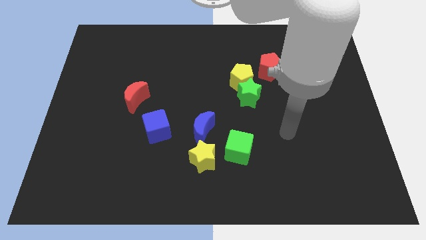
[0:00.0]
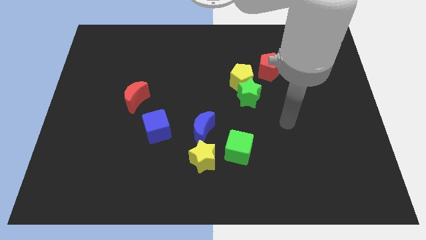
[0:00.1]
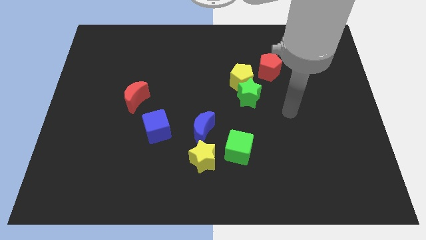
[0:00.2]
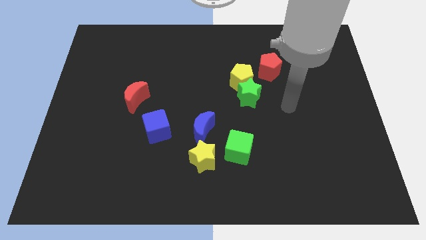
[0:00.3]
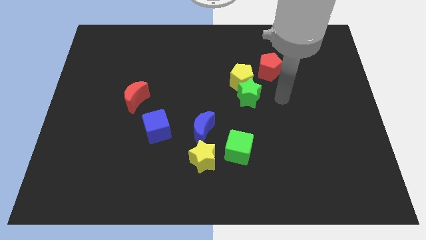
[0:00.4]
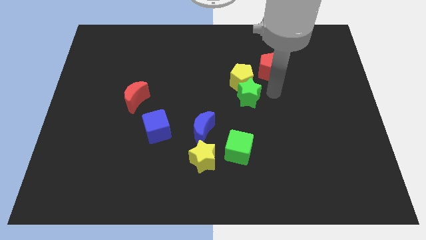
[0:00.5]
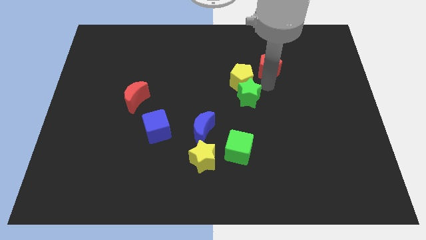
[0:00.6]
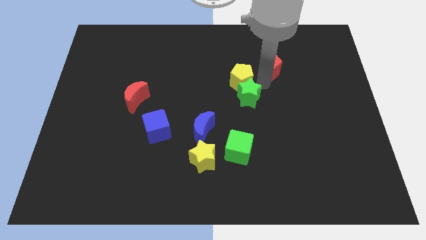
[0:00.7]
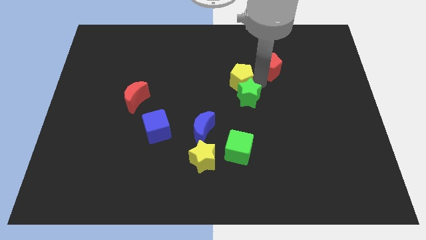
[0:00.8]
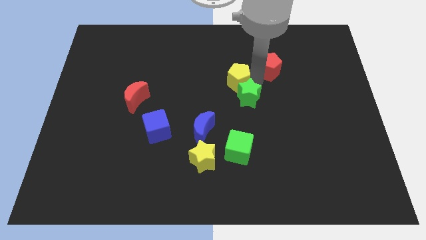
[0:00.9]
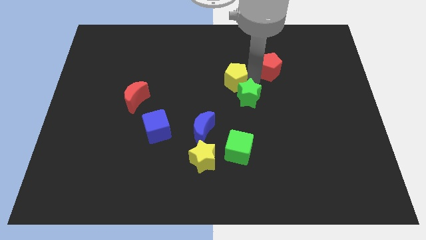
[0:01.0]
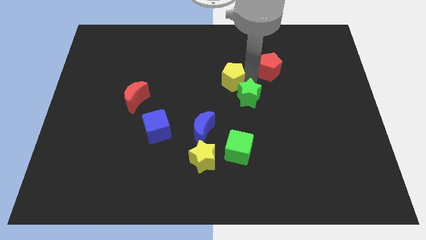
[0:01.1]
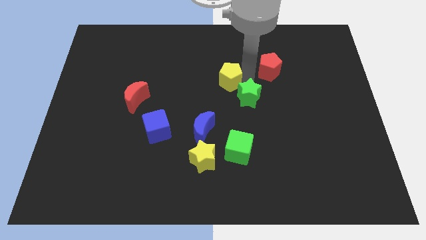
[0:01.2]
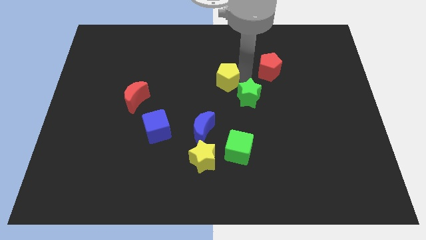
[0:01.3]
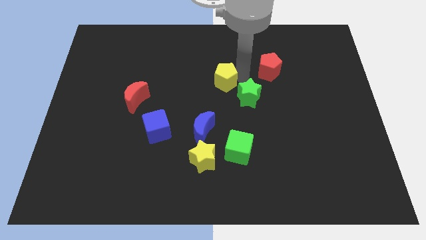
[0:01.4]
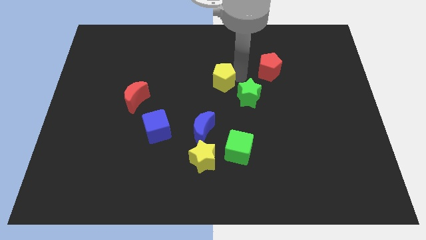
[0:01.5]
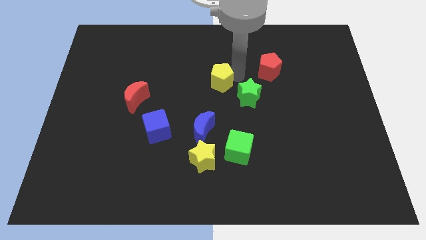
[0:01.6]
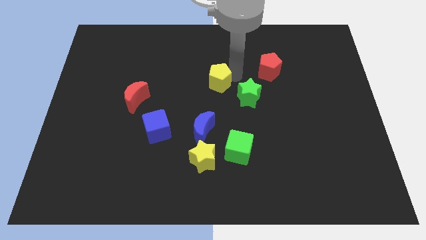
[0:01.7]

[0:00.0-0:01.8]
separate the yellow pentagon from the green star and red pentagon

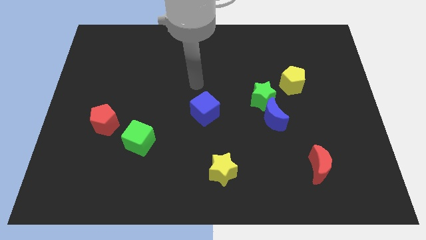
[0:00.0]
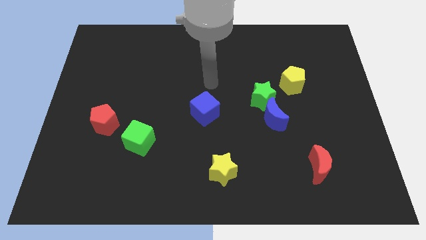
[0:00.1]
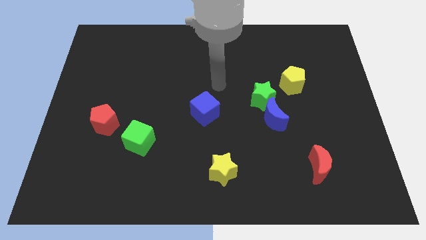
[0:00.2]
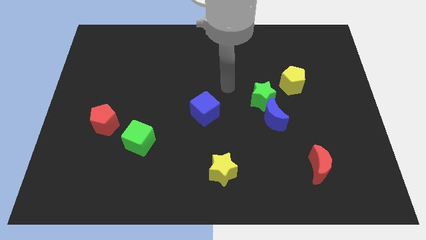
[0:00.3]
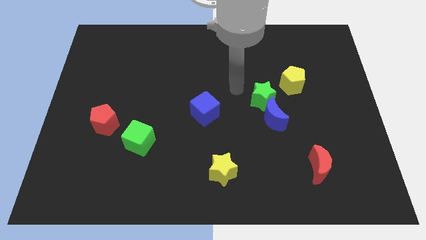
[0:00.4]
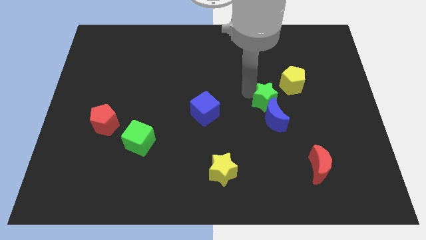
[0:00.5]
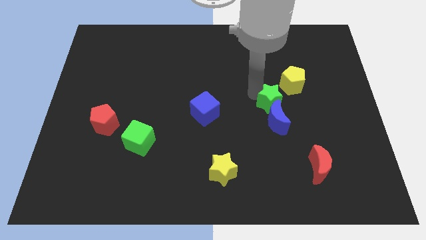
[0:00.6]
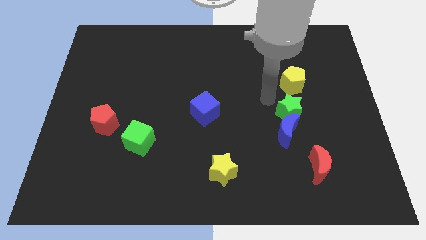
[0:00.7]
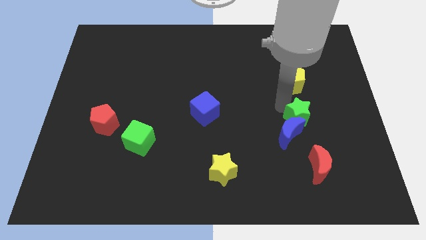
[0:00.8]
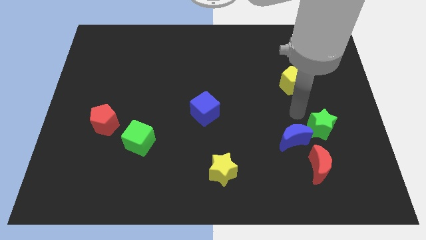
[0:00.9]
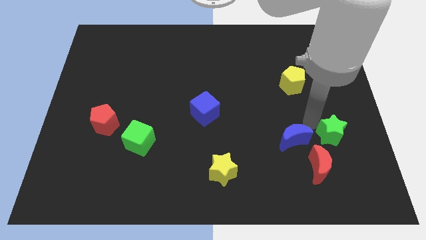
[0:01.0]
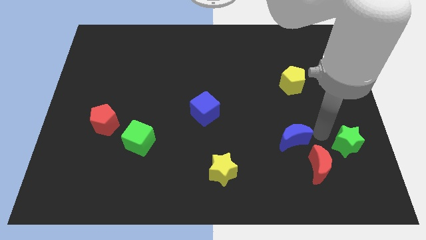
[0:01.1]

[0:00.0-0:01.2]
move the blue moon away from the green star

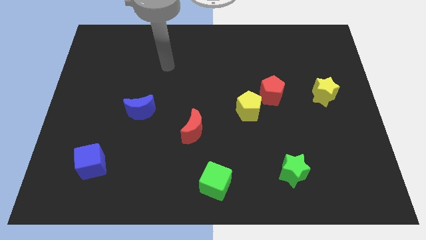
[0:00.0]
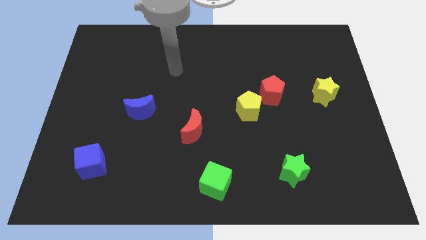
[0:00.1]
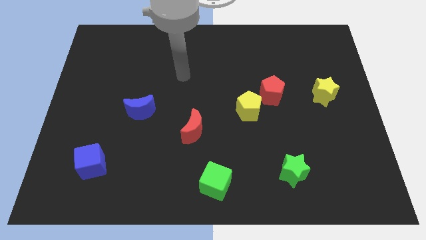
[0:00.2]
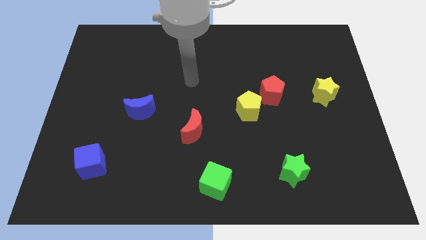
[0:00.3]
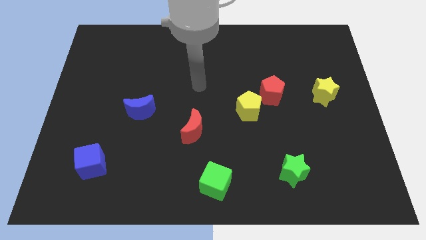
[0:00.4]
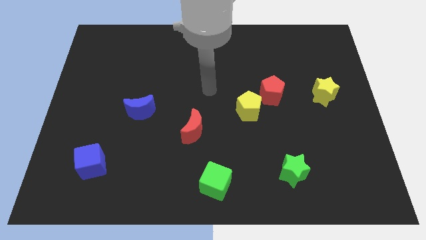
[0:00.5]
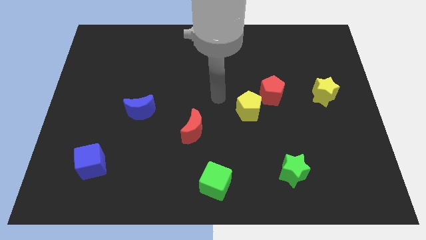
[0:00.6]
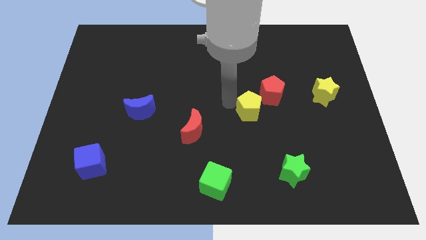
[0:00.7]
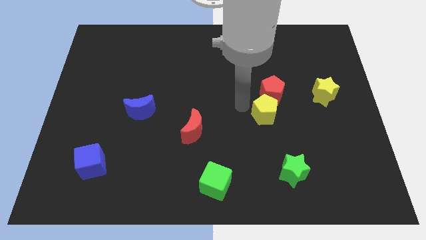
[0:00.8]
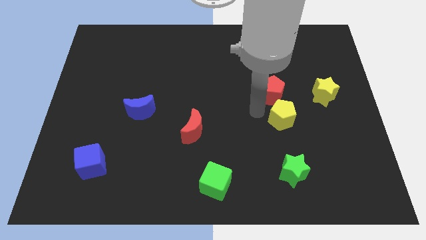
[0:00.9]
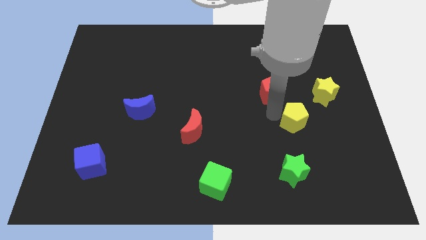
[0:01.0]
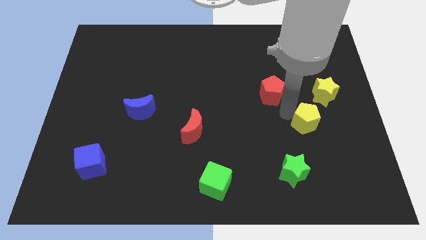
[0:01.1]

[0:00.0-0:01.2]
move the red pentagon away from the yellow pentagon

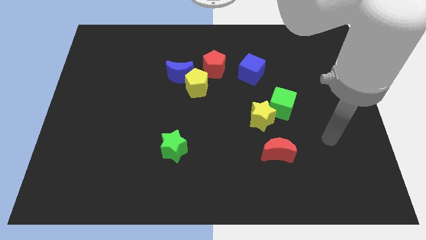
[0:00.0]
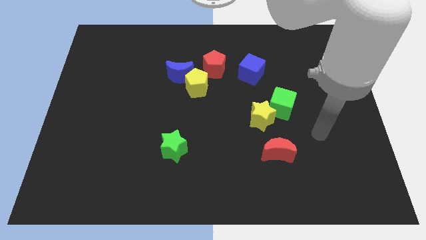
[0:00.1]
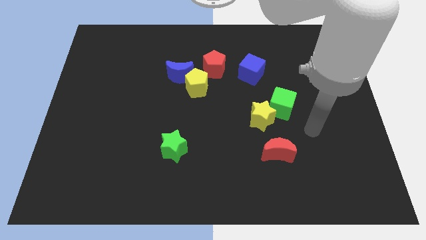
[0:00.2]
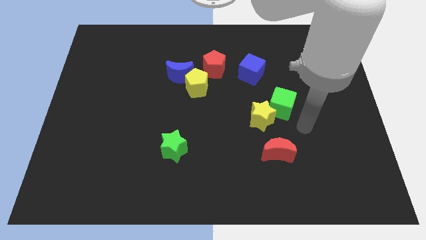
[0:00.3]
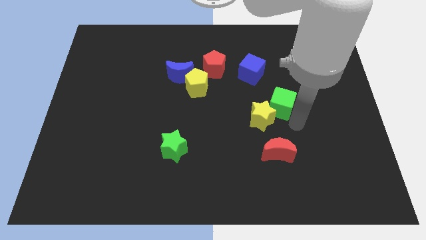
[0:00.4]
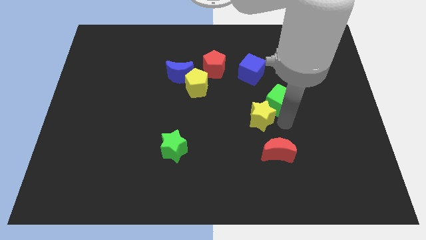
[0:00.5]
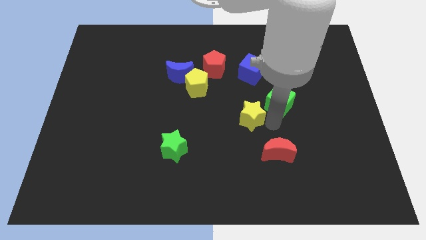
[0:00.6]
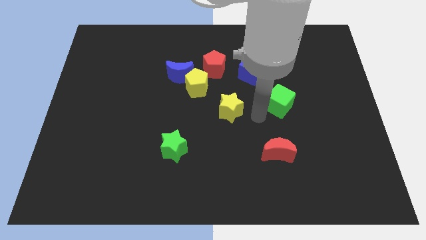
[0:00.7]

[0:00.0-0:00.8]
pull the green cube apart from the yellow star

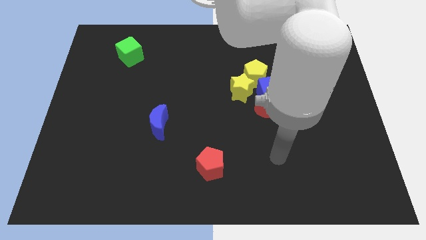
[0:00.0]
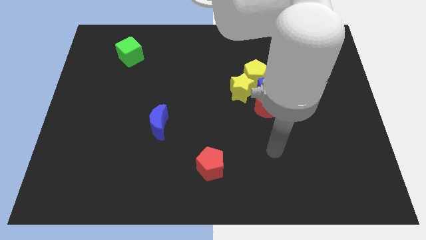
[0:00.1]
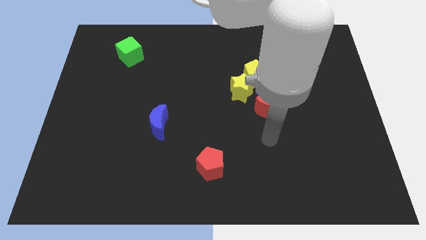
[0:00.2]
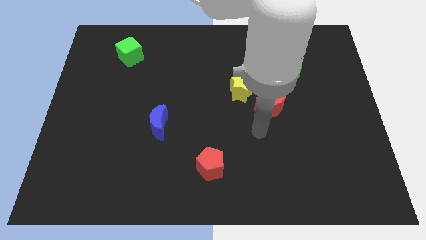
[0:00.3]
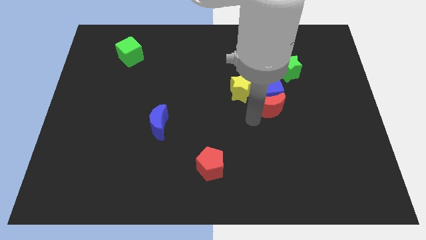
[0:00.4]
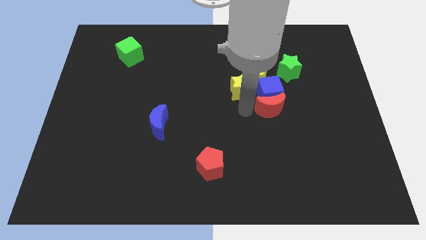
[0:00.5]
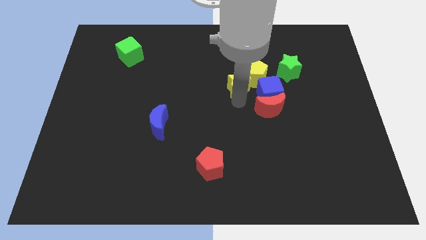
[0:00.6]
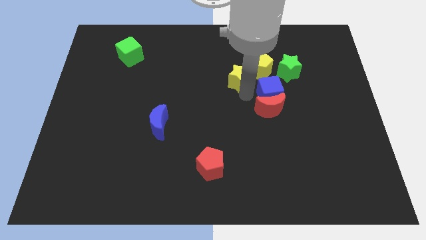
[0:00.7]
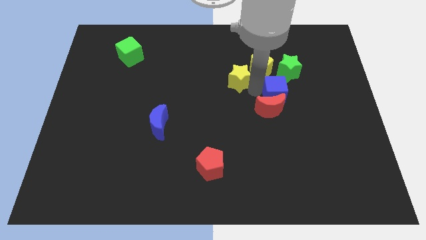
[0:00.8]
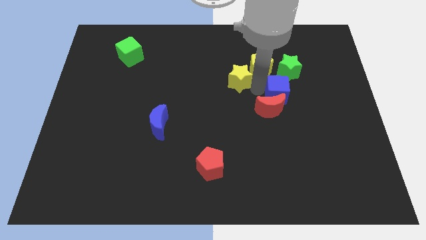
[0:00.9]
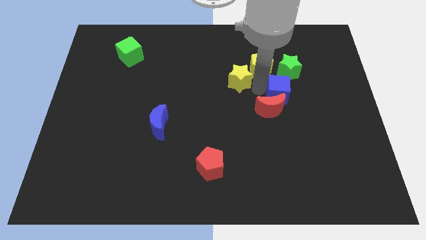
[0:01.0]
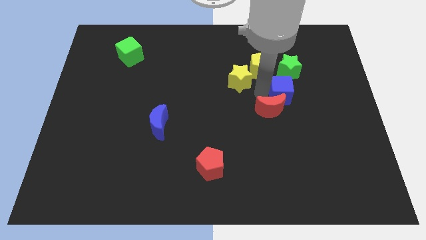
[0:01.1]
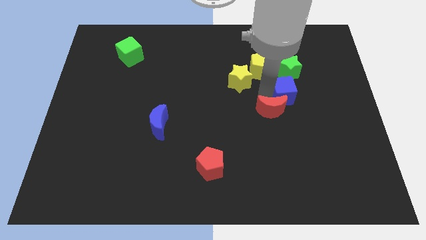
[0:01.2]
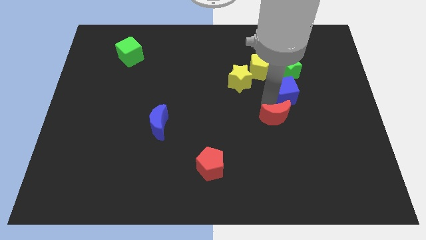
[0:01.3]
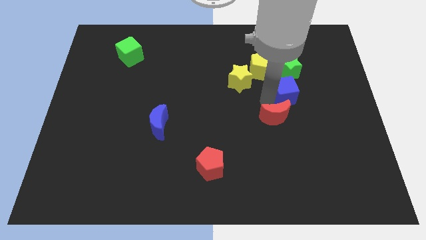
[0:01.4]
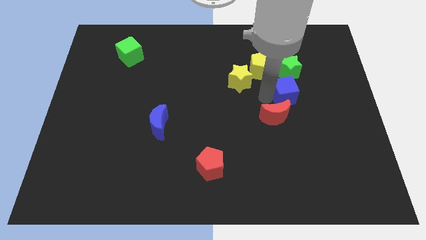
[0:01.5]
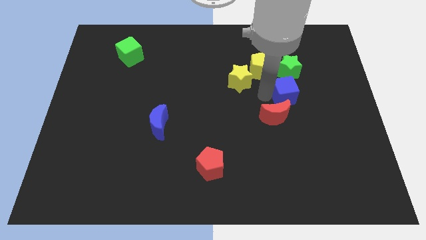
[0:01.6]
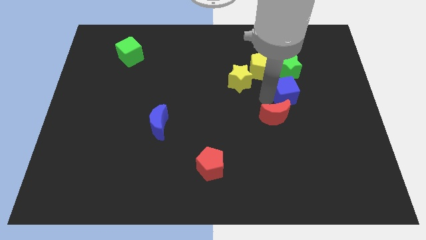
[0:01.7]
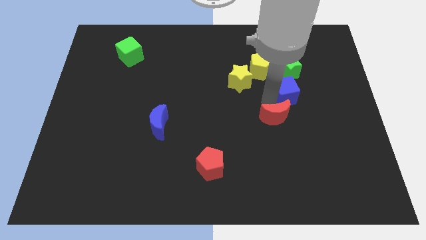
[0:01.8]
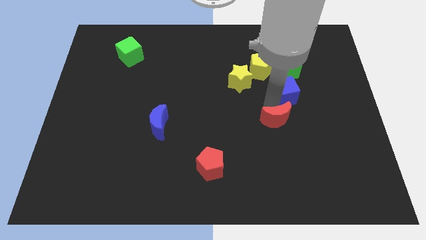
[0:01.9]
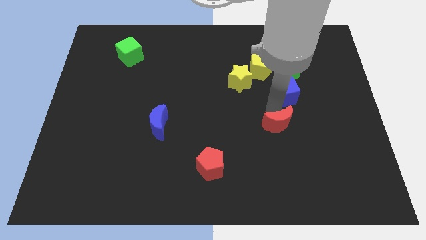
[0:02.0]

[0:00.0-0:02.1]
move the red moon away from the blue cube and yellow star

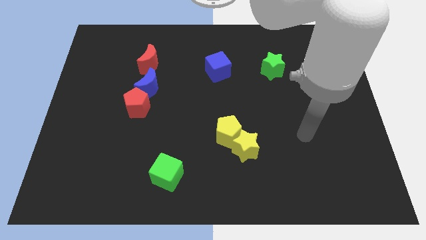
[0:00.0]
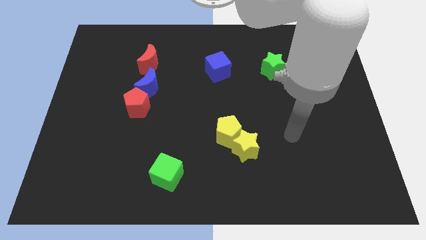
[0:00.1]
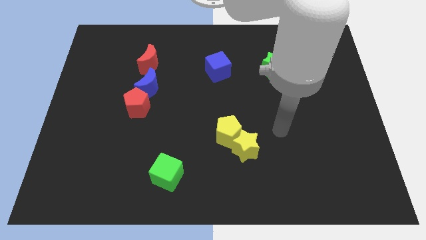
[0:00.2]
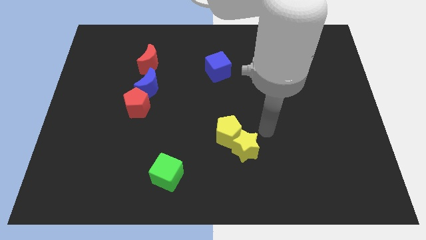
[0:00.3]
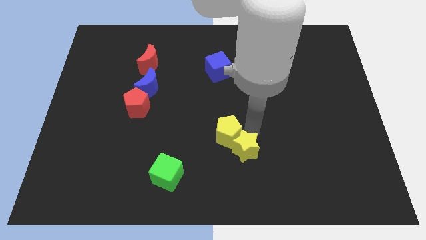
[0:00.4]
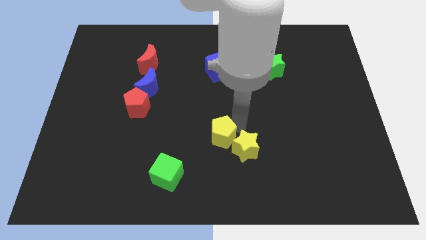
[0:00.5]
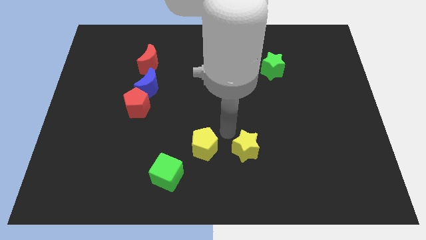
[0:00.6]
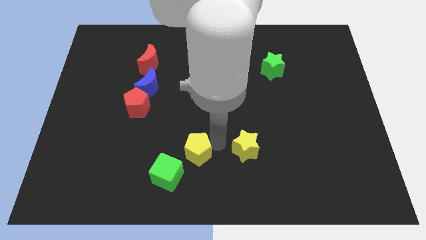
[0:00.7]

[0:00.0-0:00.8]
move the yellow star away from the yellow pentagon

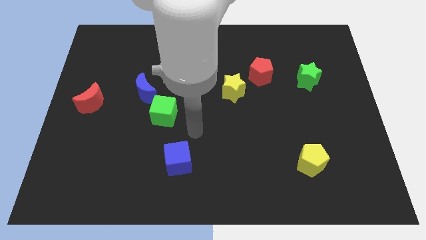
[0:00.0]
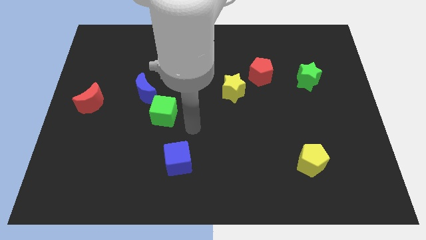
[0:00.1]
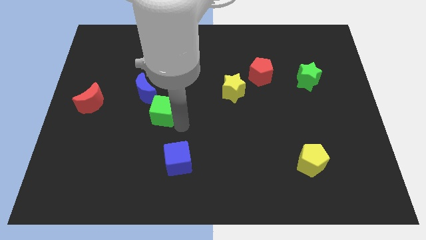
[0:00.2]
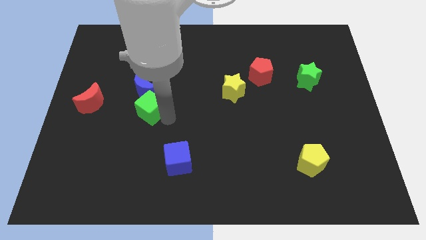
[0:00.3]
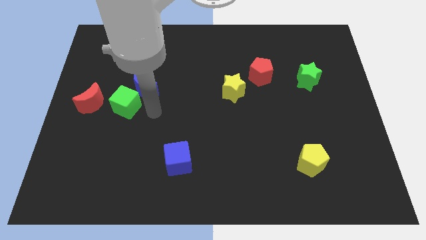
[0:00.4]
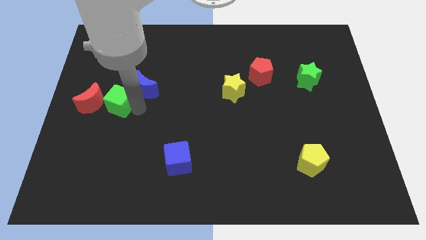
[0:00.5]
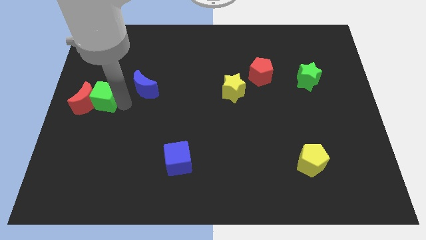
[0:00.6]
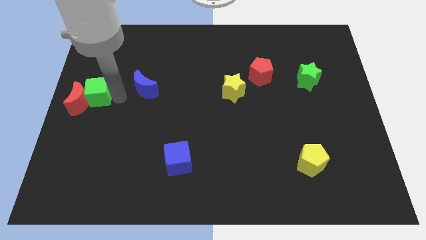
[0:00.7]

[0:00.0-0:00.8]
pull the blue moon apart from the green cube

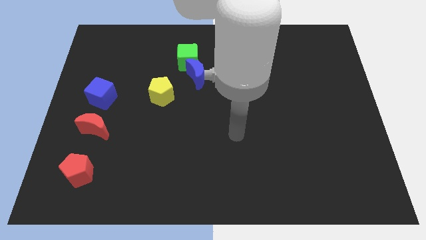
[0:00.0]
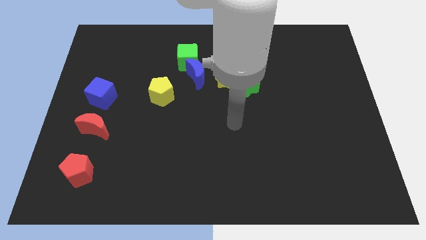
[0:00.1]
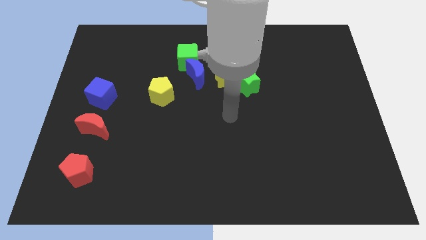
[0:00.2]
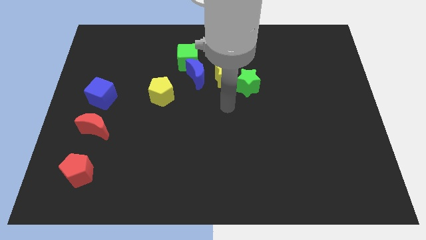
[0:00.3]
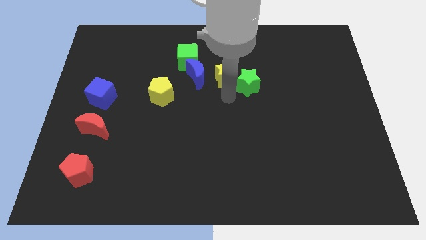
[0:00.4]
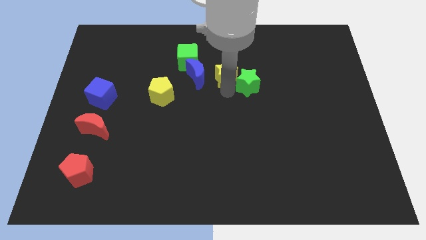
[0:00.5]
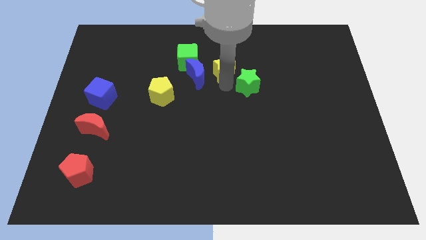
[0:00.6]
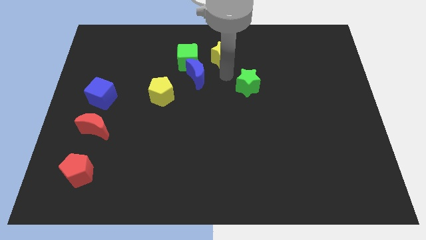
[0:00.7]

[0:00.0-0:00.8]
pull the green star apart from the yellow star
